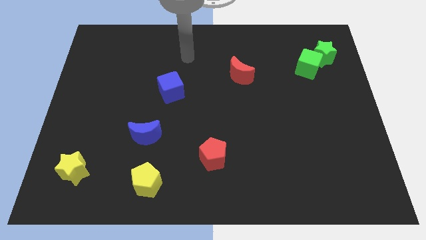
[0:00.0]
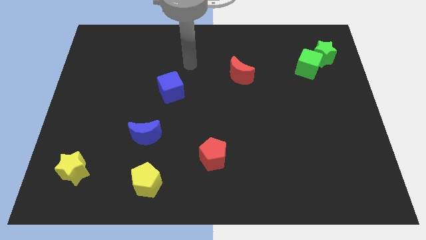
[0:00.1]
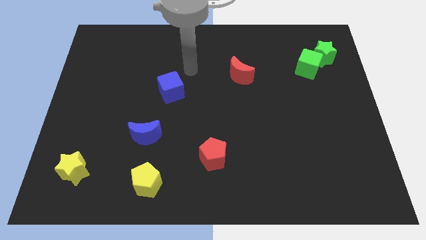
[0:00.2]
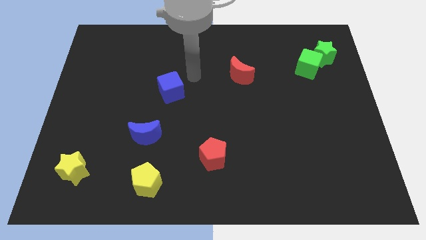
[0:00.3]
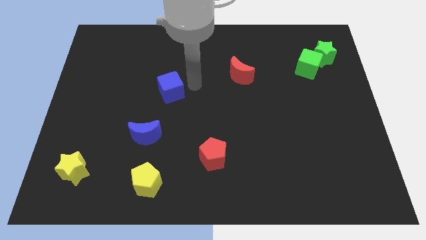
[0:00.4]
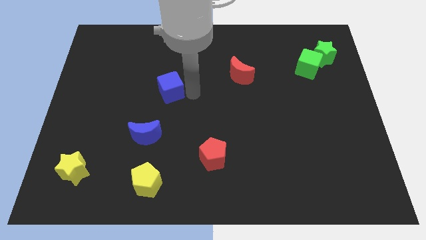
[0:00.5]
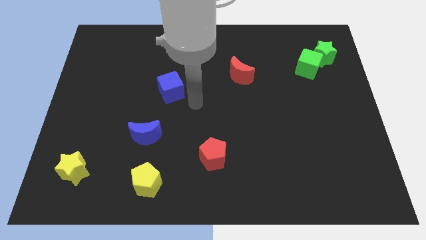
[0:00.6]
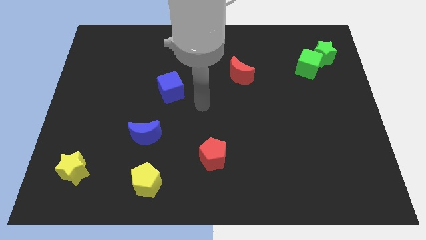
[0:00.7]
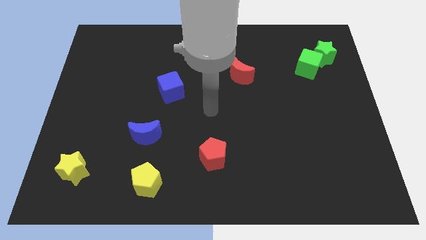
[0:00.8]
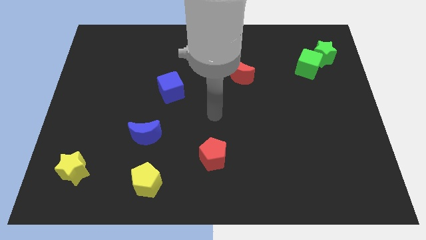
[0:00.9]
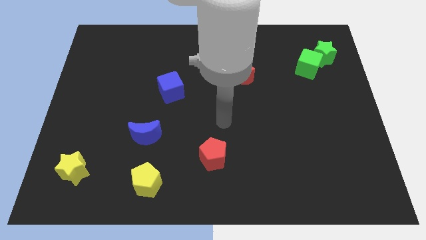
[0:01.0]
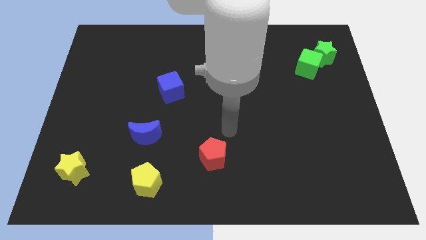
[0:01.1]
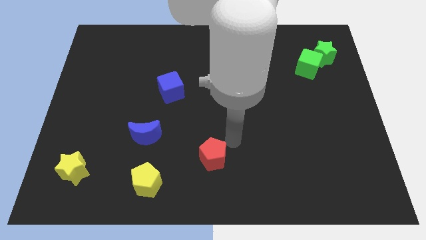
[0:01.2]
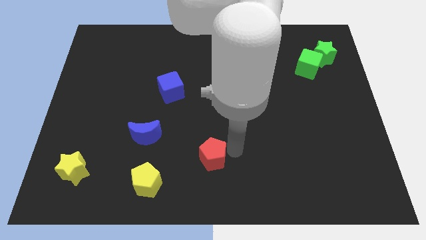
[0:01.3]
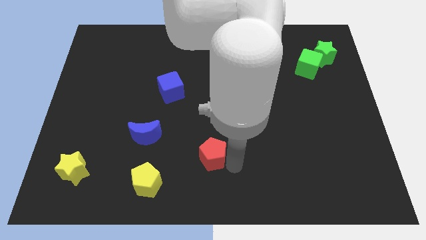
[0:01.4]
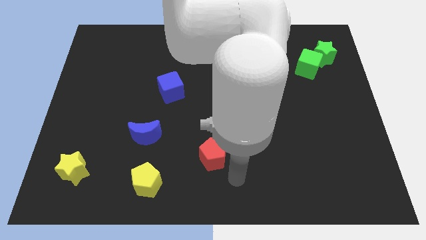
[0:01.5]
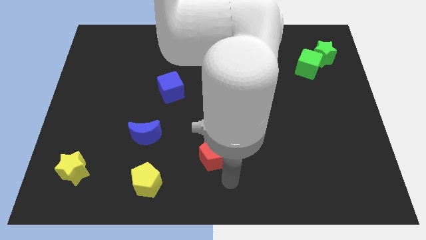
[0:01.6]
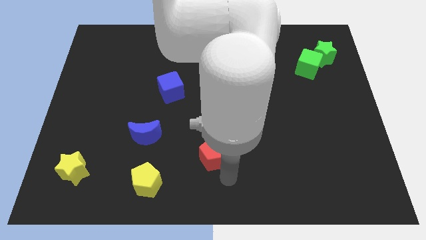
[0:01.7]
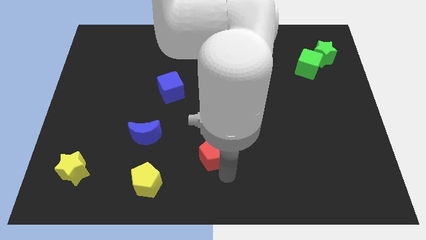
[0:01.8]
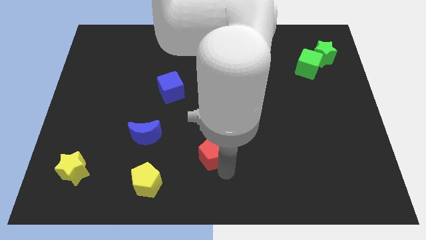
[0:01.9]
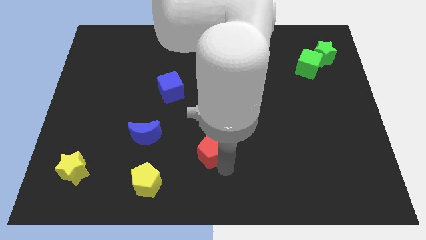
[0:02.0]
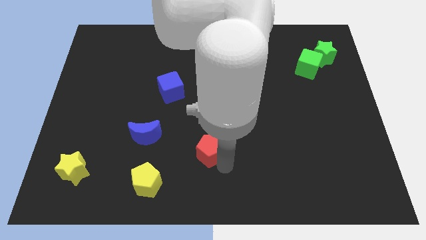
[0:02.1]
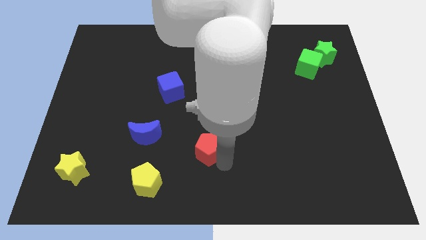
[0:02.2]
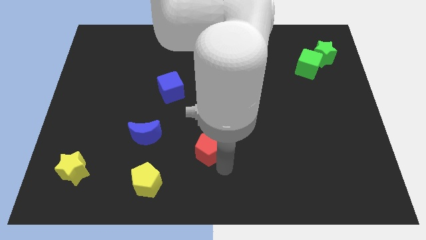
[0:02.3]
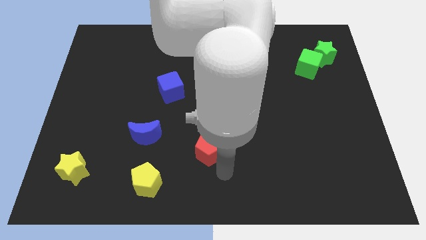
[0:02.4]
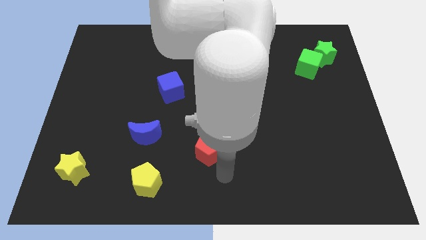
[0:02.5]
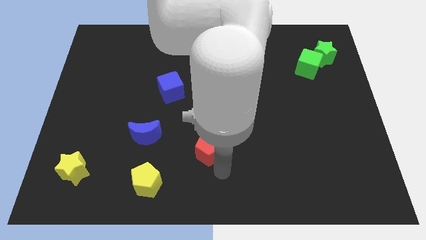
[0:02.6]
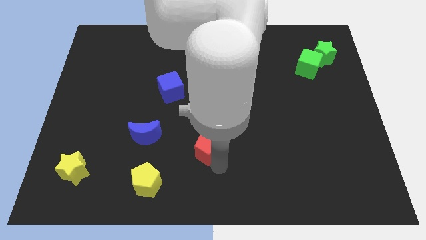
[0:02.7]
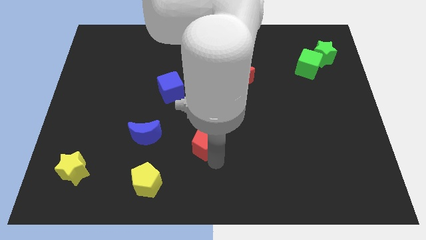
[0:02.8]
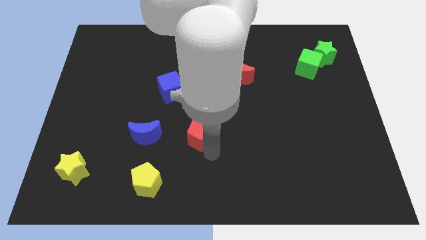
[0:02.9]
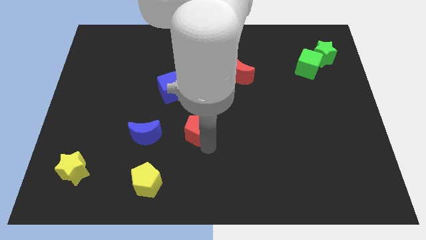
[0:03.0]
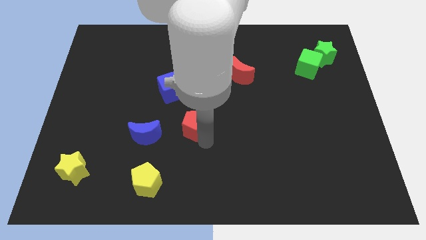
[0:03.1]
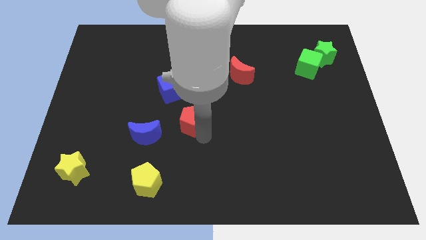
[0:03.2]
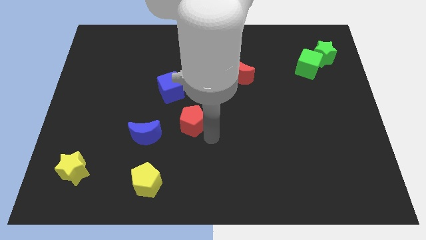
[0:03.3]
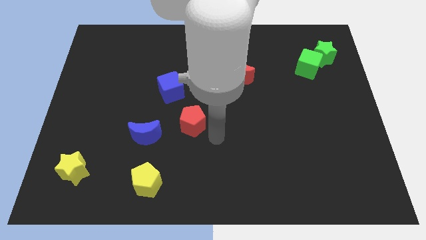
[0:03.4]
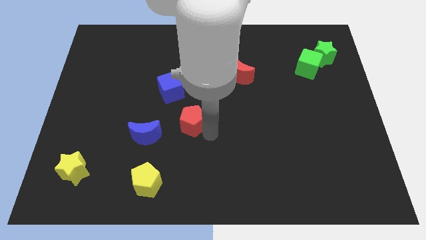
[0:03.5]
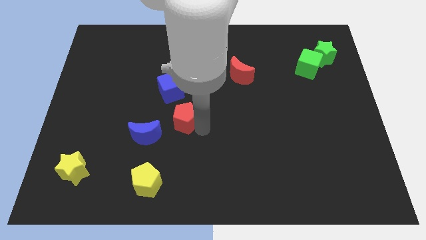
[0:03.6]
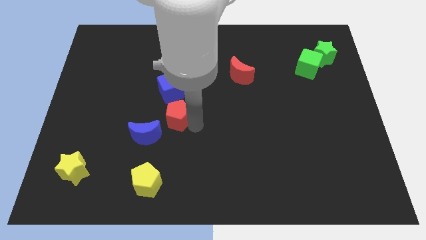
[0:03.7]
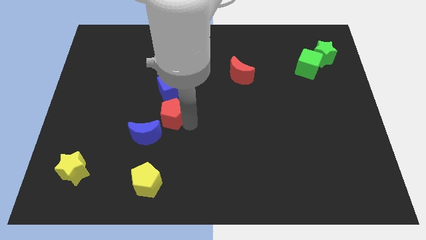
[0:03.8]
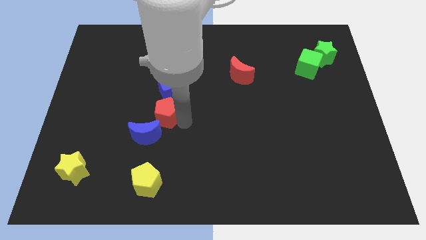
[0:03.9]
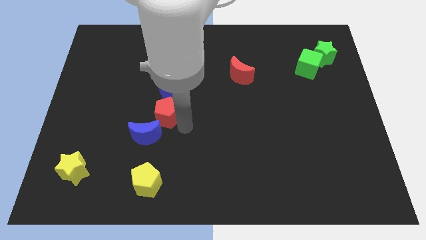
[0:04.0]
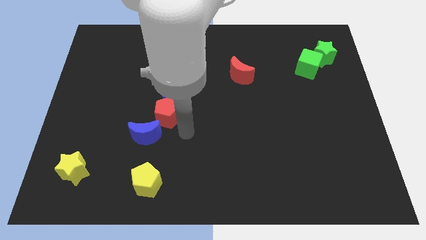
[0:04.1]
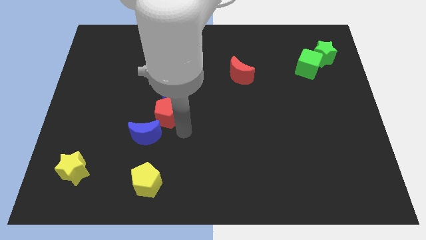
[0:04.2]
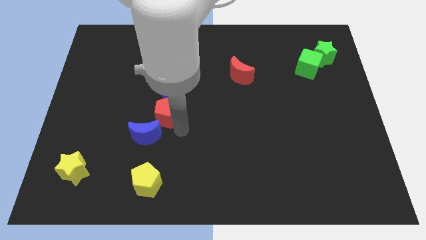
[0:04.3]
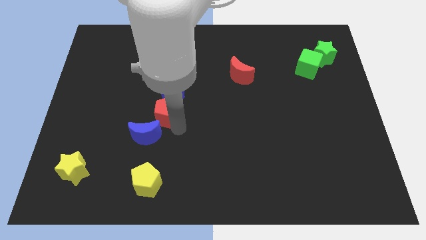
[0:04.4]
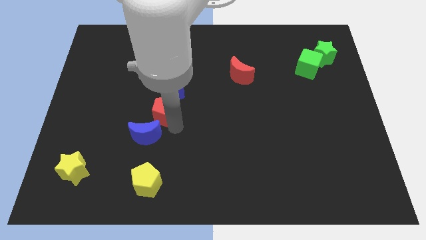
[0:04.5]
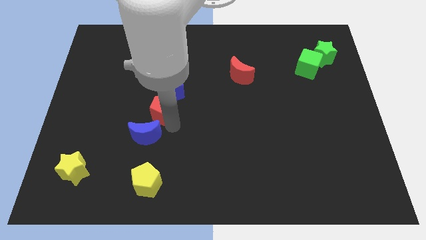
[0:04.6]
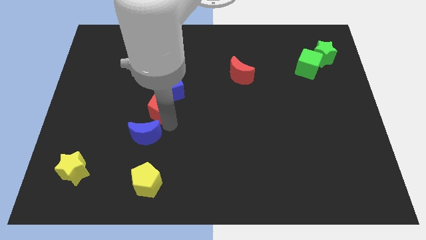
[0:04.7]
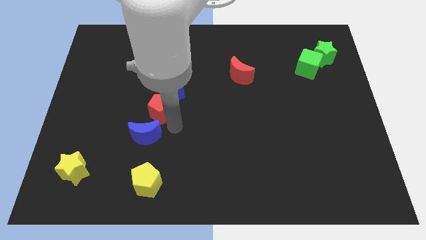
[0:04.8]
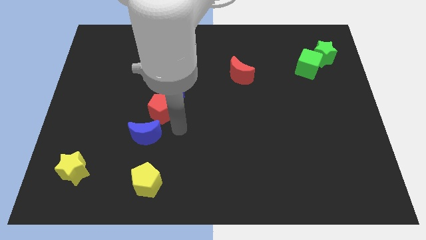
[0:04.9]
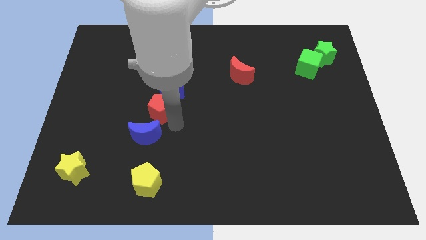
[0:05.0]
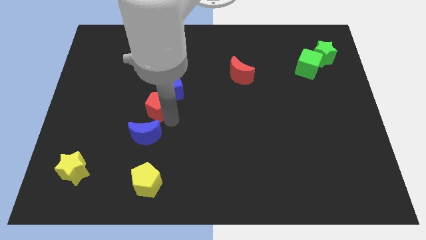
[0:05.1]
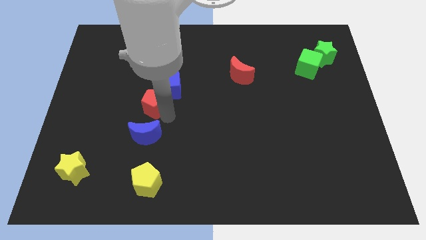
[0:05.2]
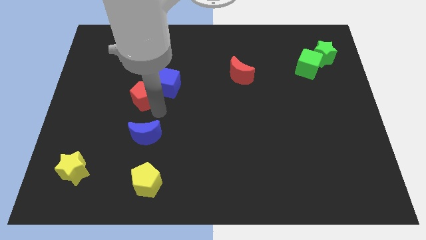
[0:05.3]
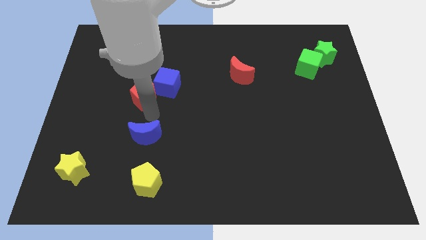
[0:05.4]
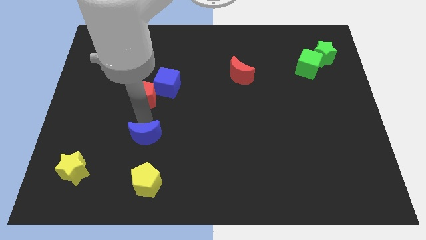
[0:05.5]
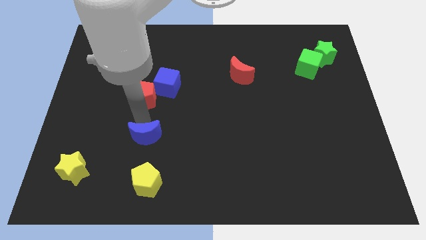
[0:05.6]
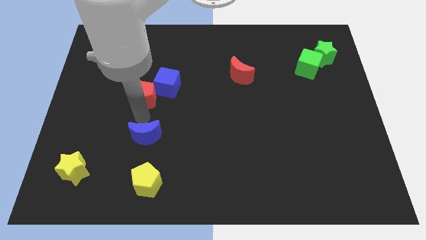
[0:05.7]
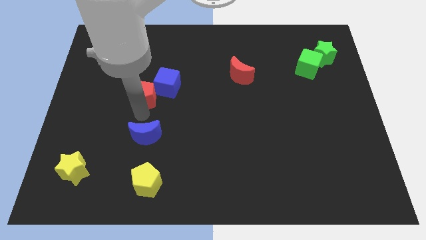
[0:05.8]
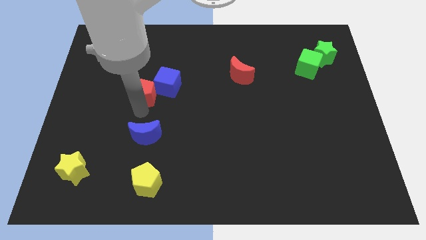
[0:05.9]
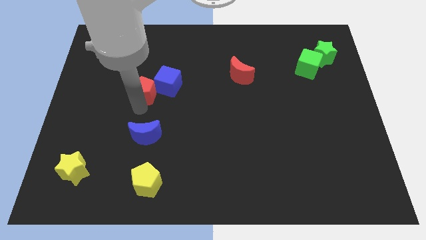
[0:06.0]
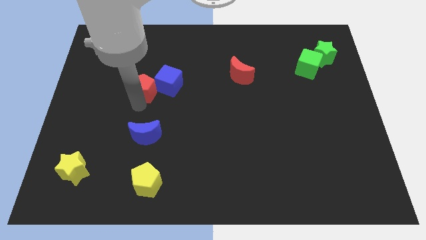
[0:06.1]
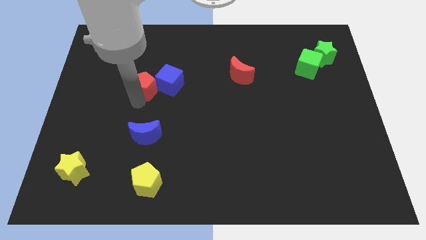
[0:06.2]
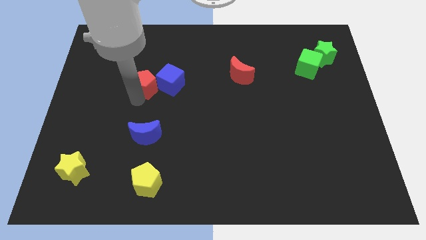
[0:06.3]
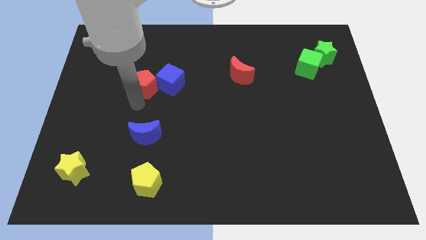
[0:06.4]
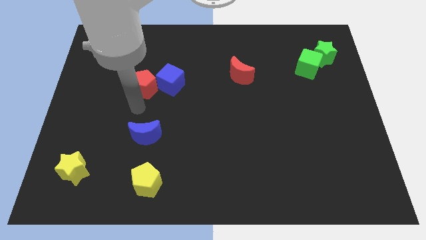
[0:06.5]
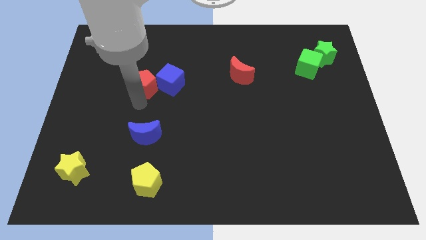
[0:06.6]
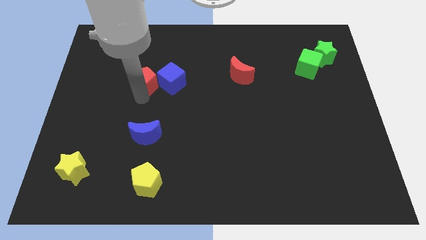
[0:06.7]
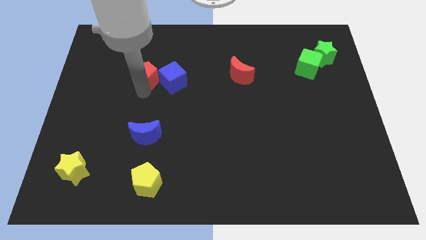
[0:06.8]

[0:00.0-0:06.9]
move the red pentagon to the top left of the blue cube

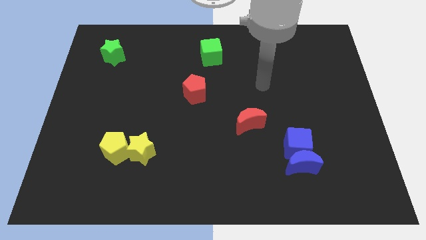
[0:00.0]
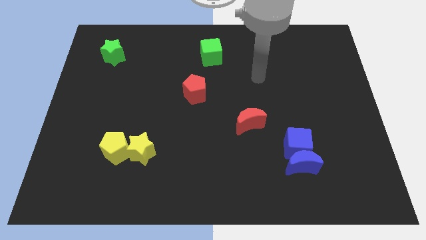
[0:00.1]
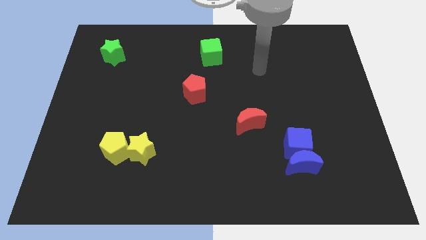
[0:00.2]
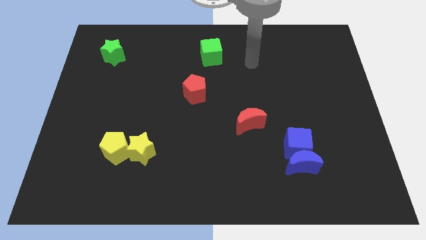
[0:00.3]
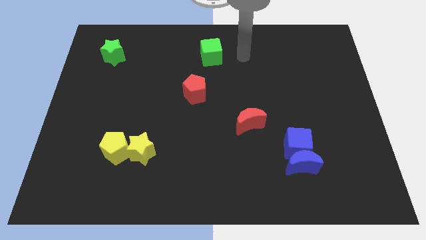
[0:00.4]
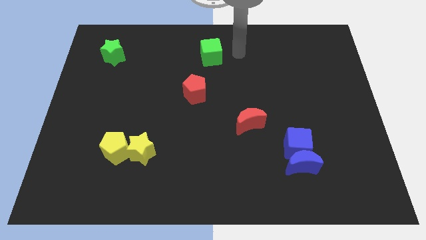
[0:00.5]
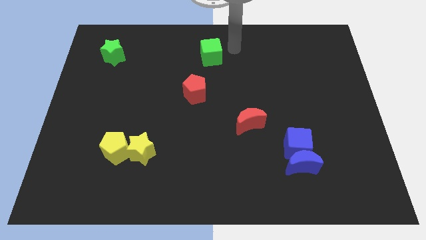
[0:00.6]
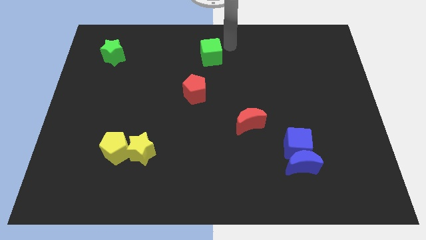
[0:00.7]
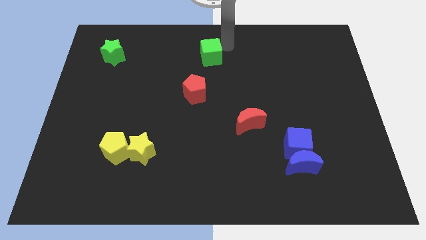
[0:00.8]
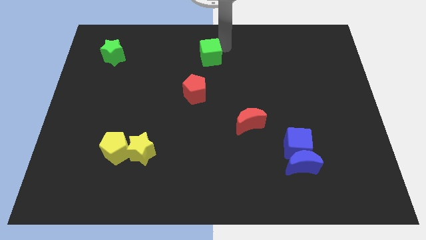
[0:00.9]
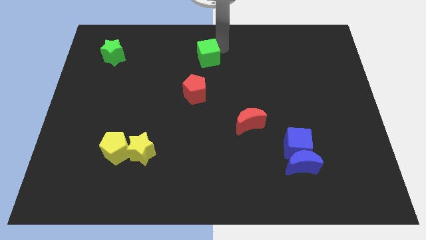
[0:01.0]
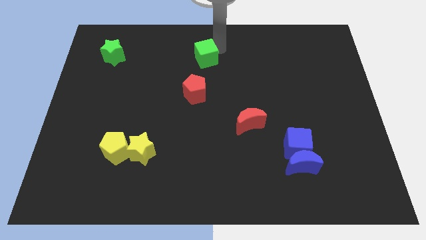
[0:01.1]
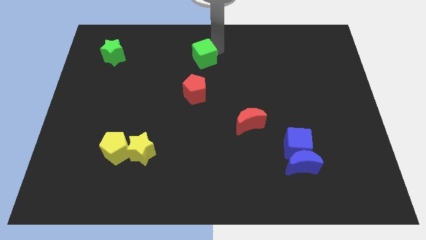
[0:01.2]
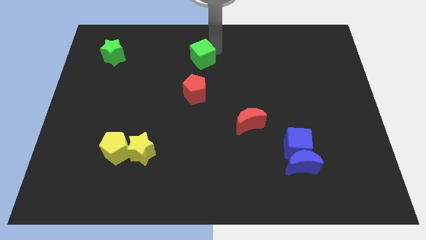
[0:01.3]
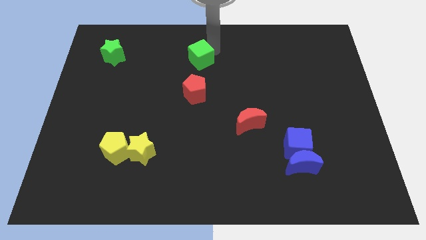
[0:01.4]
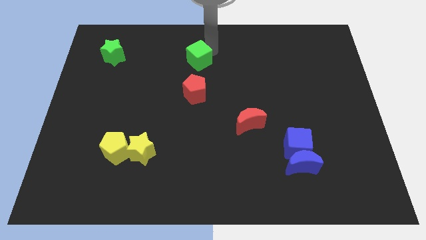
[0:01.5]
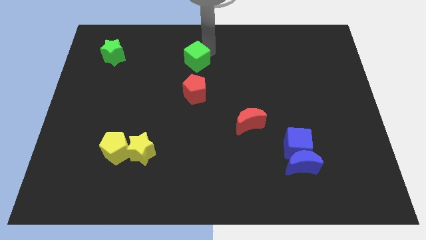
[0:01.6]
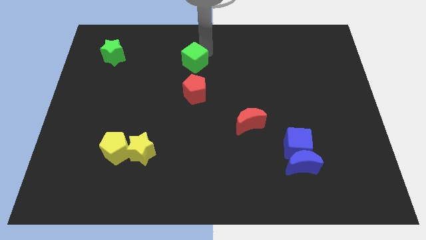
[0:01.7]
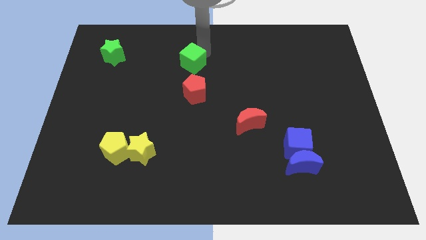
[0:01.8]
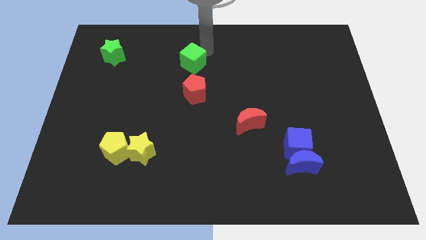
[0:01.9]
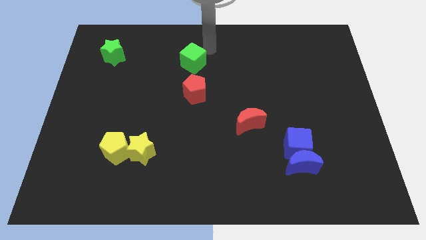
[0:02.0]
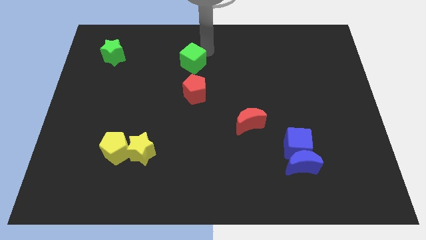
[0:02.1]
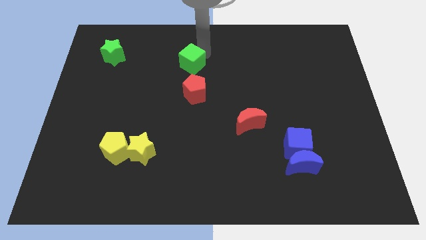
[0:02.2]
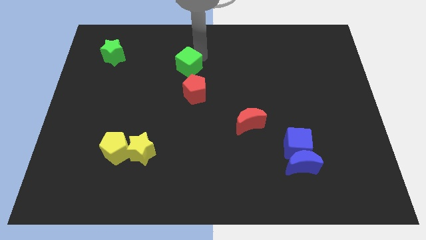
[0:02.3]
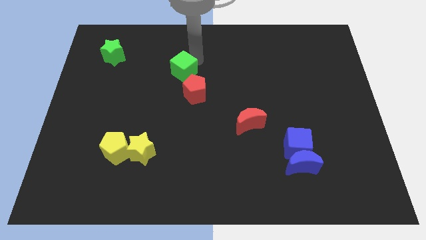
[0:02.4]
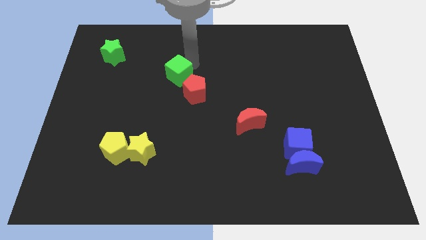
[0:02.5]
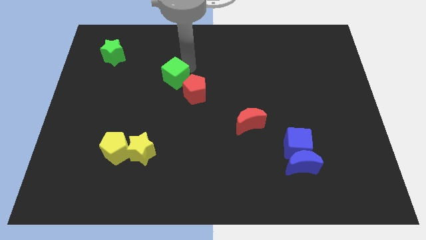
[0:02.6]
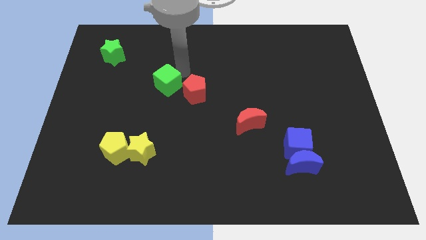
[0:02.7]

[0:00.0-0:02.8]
push the green cube just left of the red pentagon
